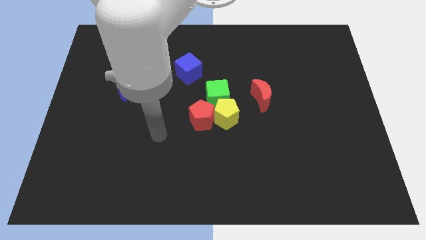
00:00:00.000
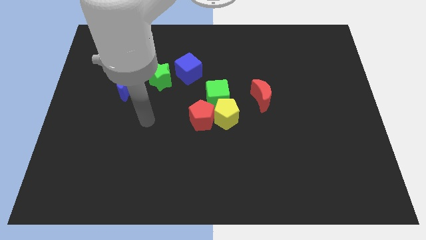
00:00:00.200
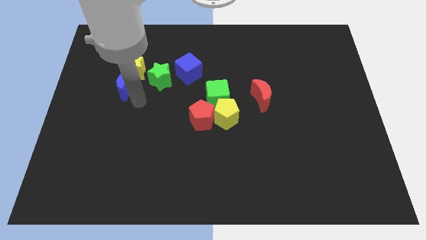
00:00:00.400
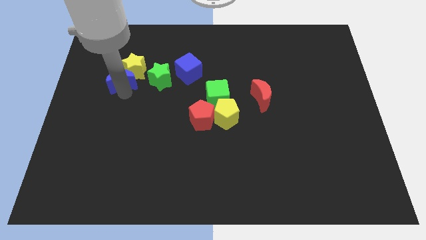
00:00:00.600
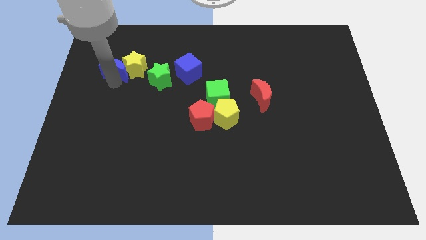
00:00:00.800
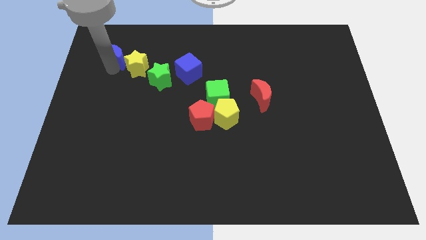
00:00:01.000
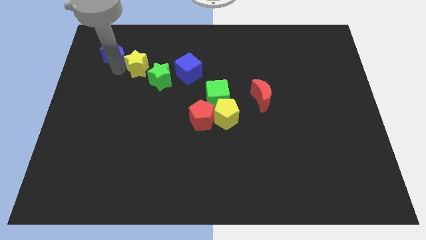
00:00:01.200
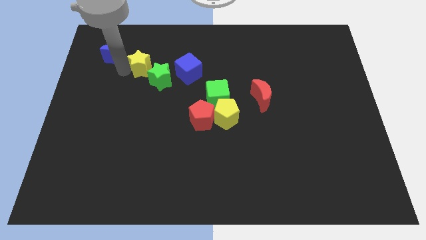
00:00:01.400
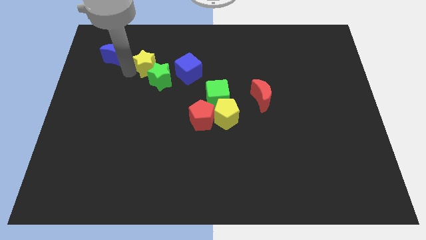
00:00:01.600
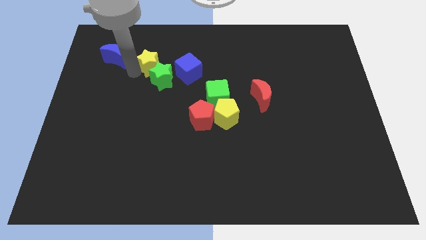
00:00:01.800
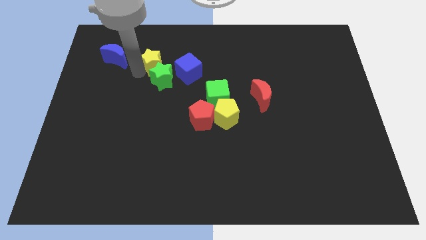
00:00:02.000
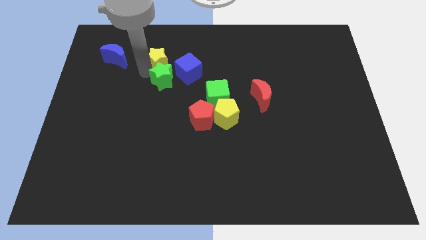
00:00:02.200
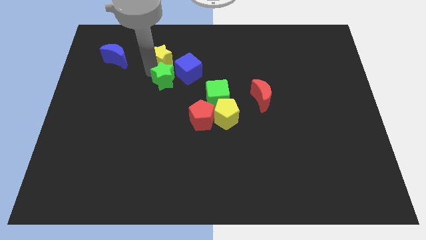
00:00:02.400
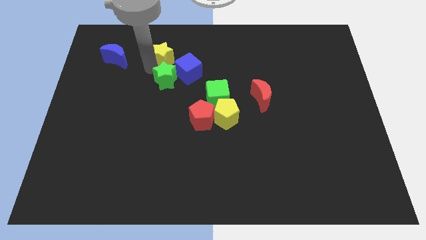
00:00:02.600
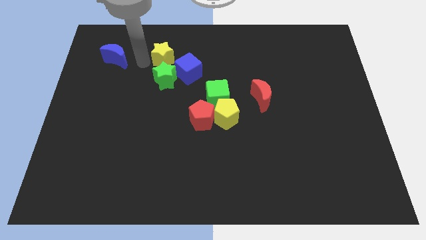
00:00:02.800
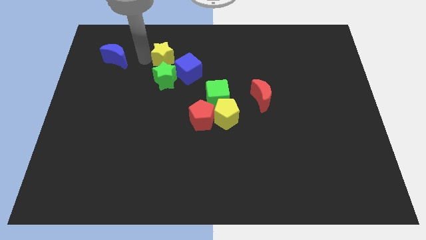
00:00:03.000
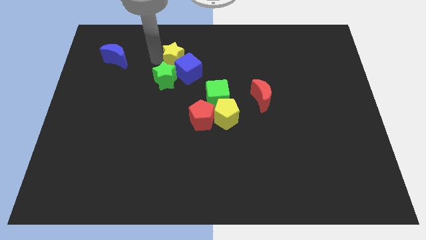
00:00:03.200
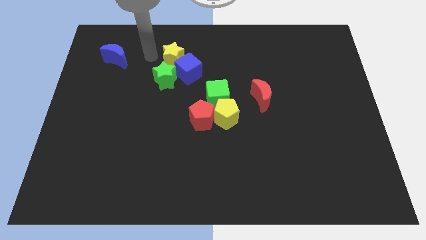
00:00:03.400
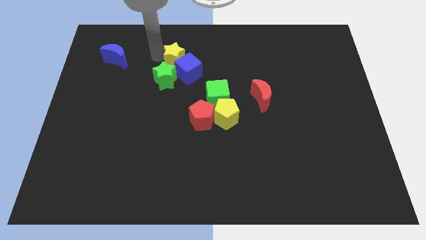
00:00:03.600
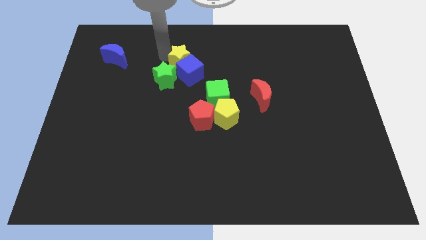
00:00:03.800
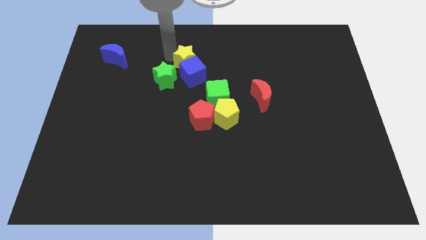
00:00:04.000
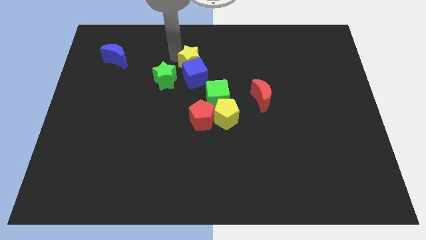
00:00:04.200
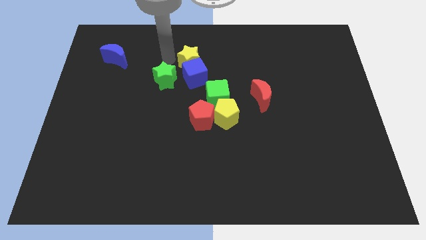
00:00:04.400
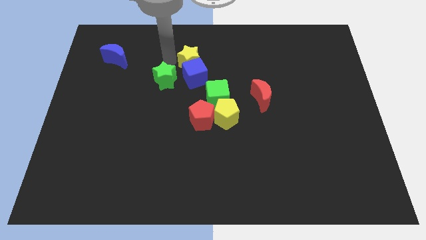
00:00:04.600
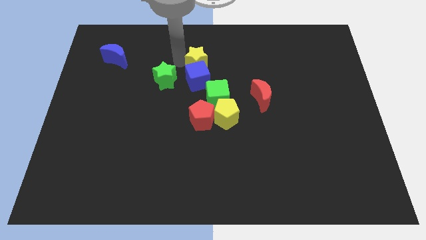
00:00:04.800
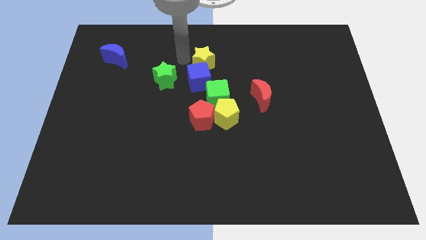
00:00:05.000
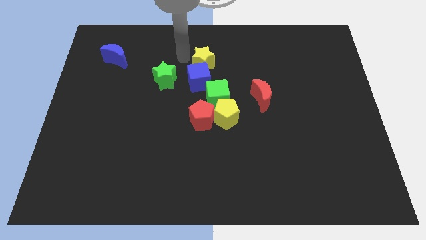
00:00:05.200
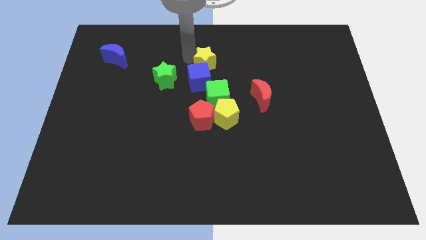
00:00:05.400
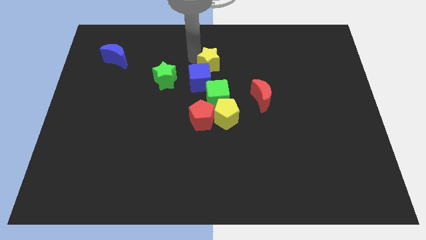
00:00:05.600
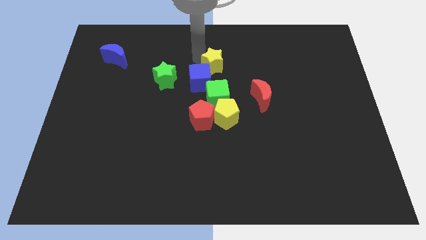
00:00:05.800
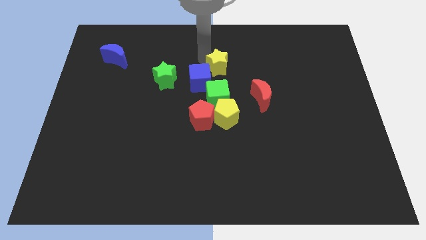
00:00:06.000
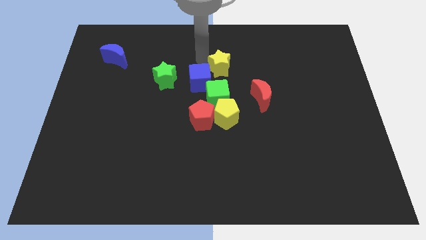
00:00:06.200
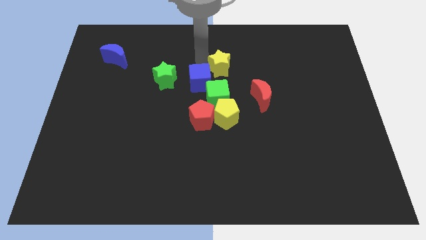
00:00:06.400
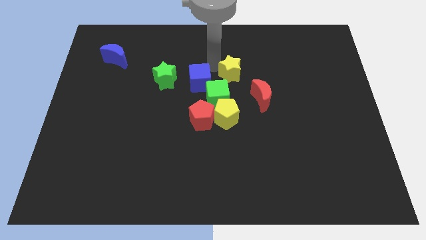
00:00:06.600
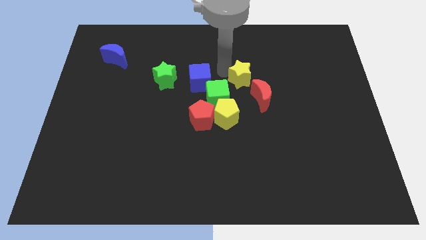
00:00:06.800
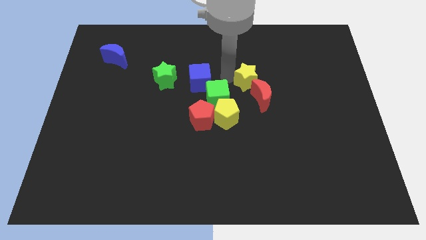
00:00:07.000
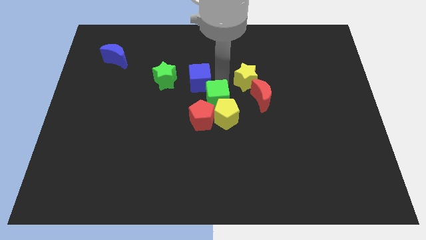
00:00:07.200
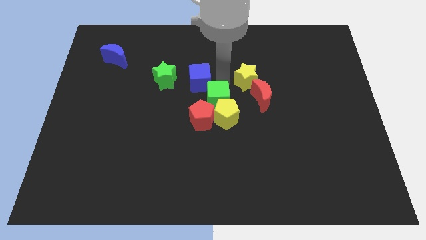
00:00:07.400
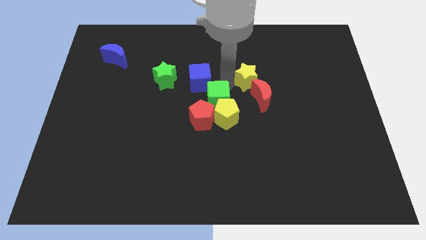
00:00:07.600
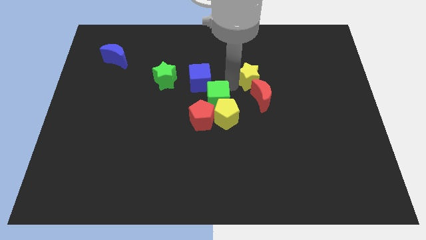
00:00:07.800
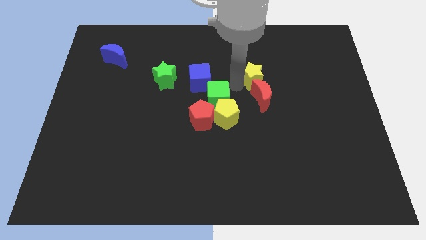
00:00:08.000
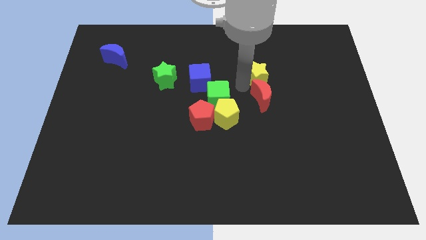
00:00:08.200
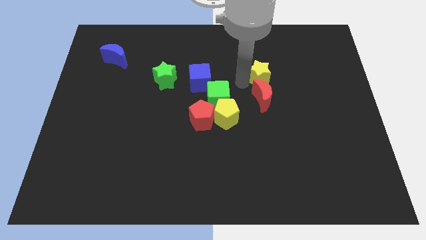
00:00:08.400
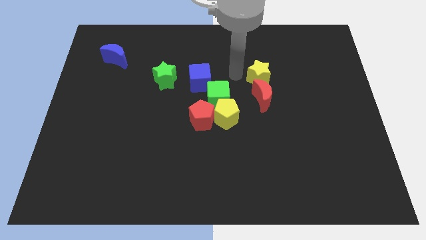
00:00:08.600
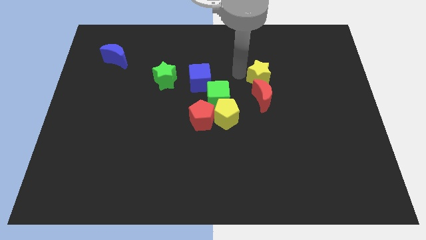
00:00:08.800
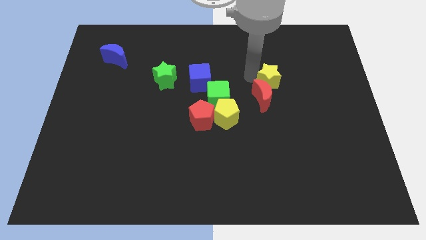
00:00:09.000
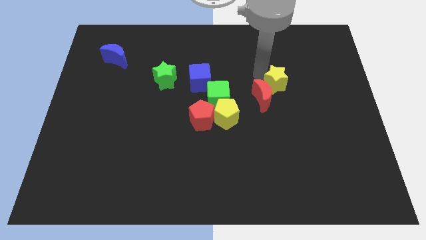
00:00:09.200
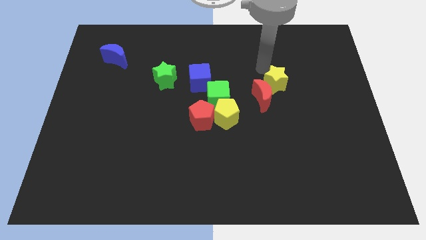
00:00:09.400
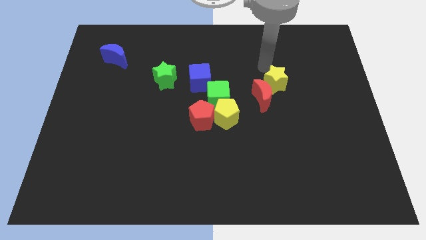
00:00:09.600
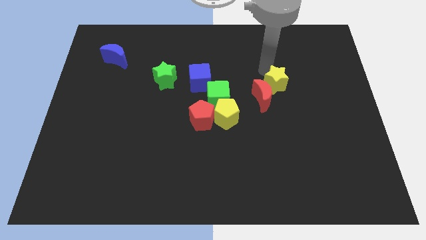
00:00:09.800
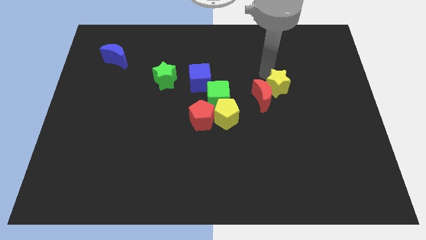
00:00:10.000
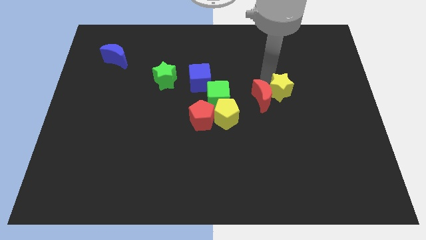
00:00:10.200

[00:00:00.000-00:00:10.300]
move the yellow star to the bottom right side of the red moon

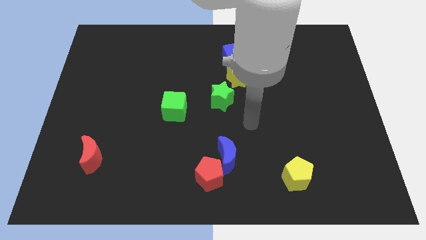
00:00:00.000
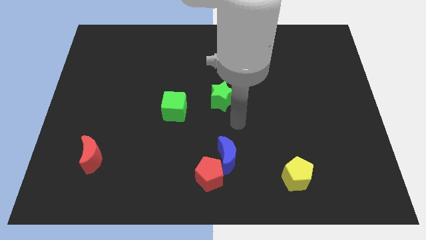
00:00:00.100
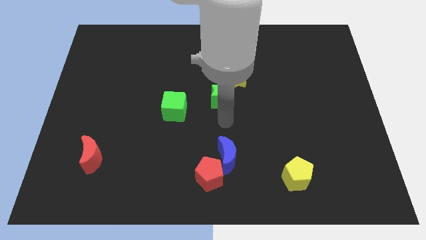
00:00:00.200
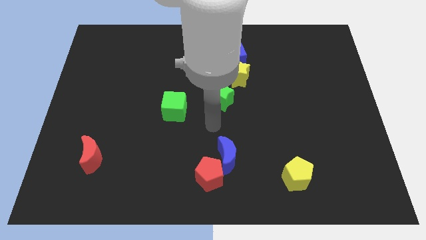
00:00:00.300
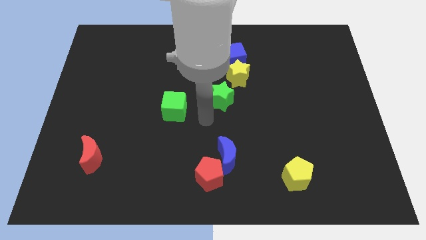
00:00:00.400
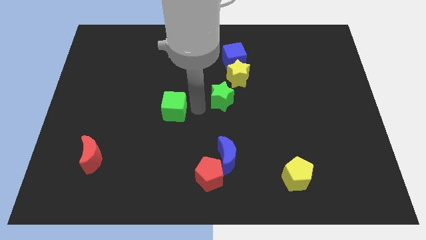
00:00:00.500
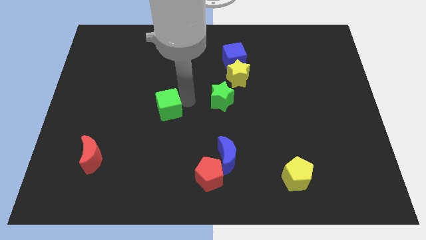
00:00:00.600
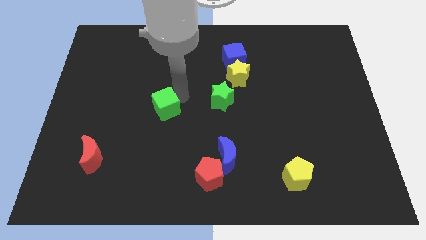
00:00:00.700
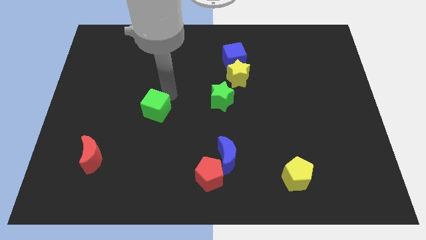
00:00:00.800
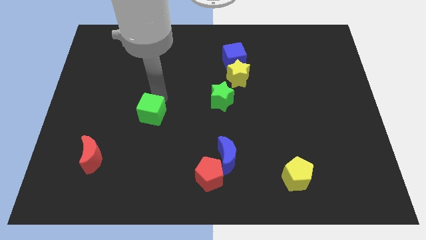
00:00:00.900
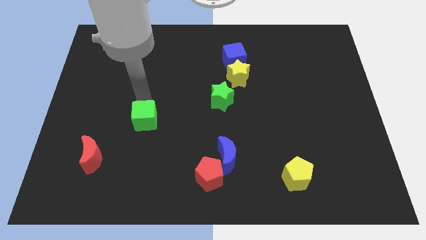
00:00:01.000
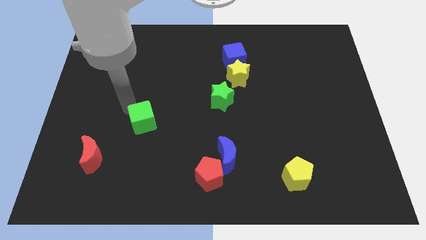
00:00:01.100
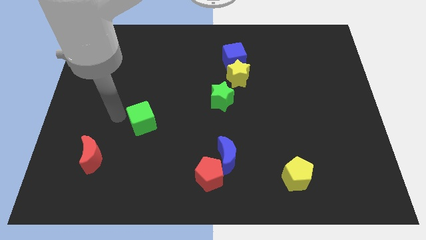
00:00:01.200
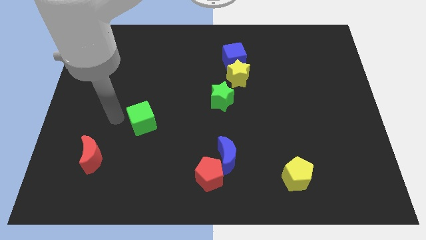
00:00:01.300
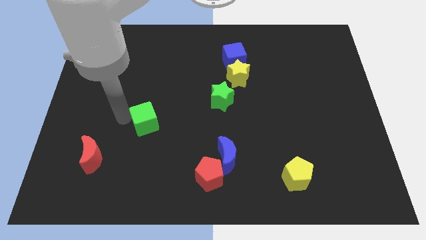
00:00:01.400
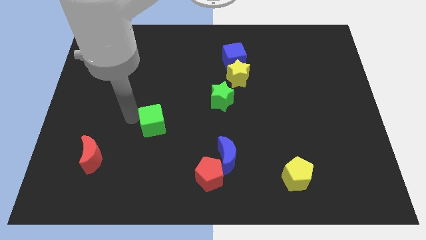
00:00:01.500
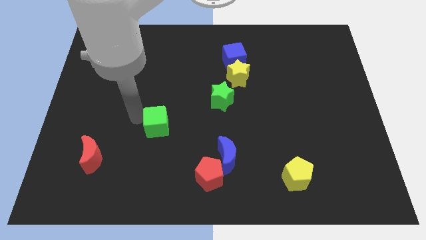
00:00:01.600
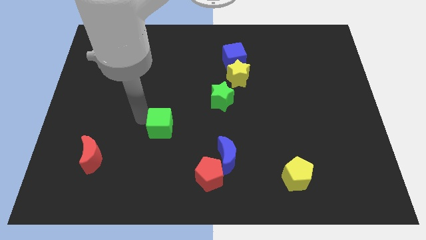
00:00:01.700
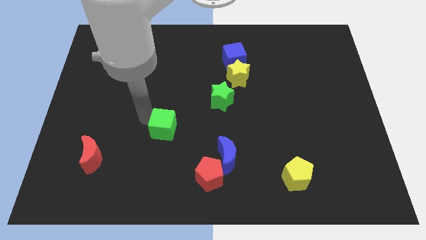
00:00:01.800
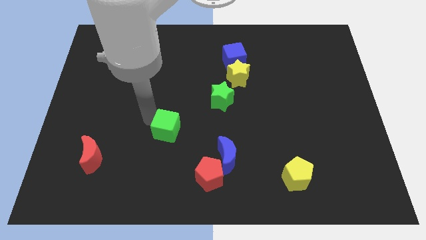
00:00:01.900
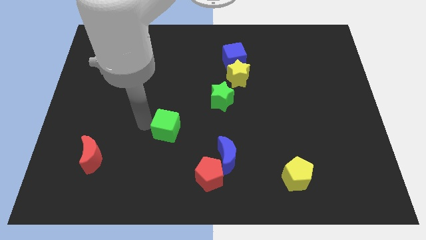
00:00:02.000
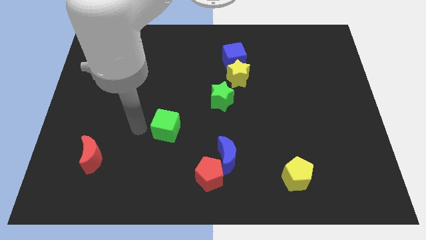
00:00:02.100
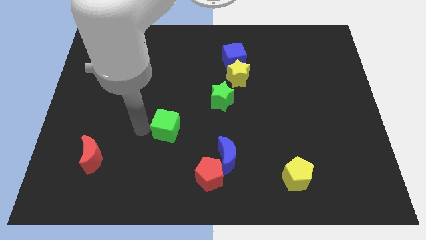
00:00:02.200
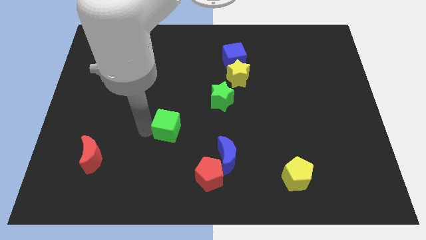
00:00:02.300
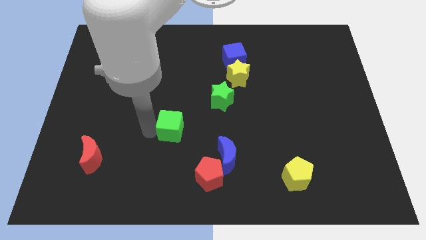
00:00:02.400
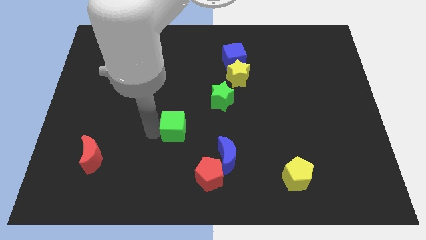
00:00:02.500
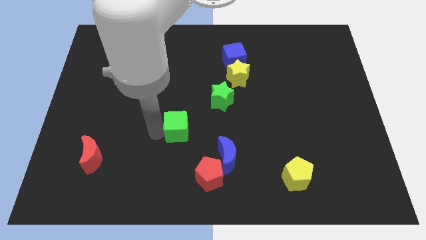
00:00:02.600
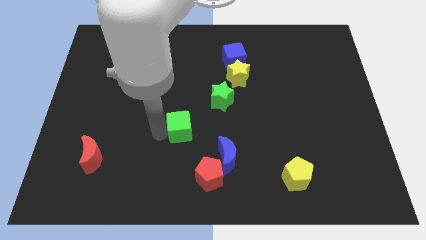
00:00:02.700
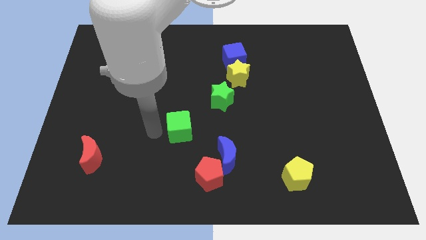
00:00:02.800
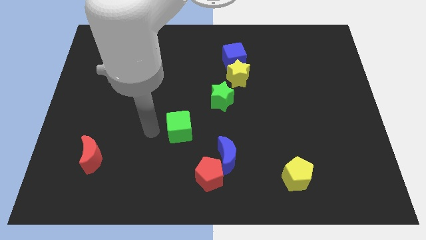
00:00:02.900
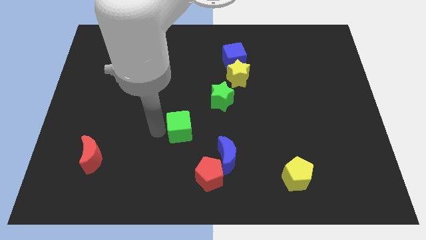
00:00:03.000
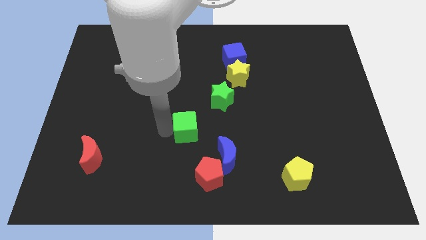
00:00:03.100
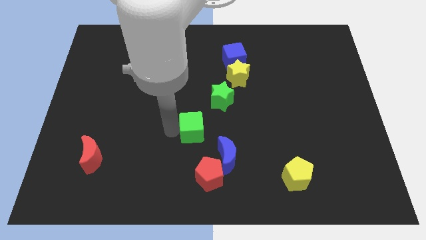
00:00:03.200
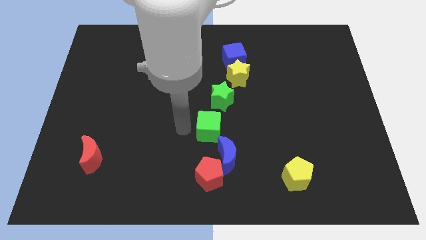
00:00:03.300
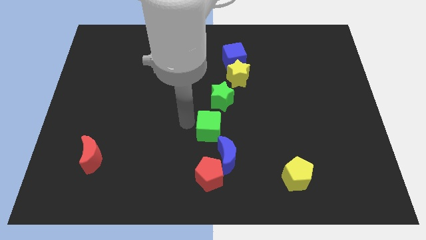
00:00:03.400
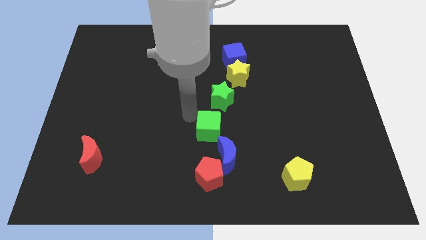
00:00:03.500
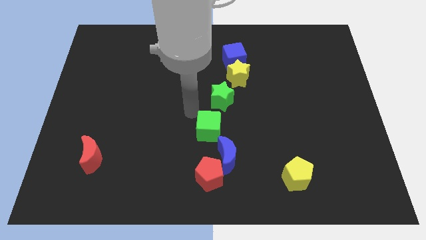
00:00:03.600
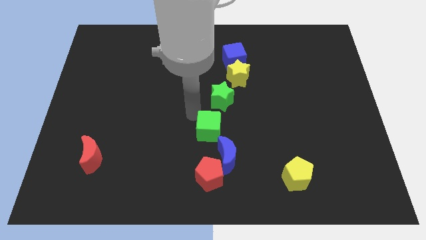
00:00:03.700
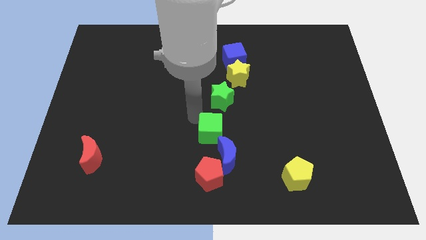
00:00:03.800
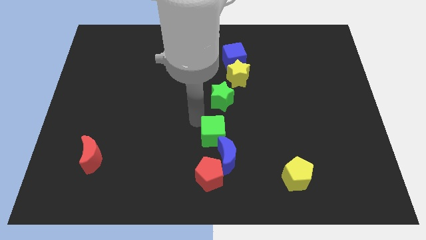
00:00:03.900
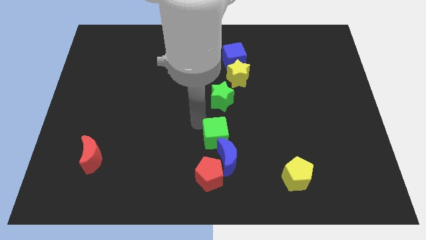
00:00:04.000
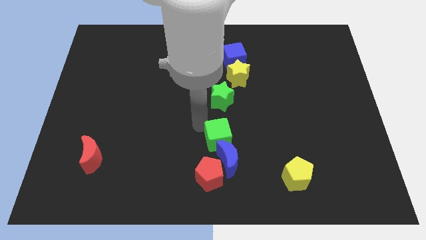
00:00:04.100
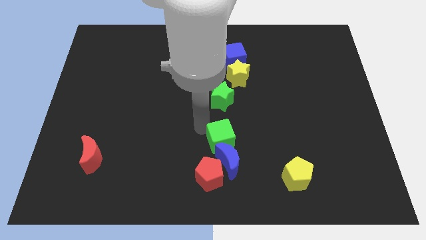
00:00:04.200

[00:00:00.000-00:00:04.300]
put the green cube to the top right of the red pentagon
